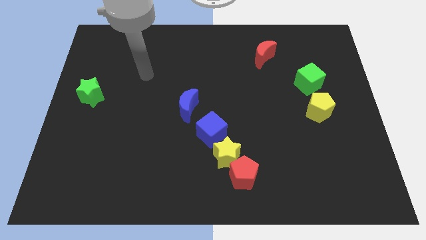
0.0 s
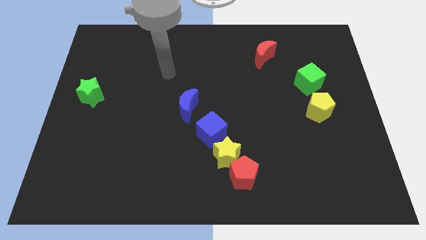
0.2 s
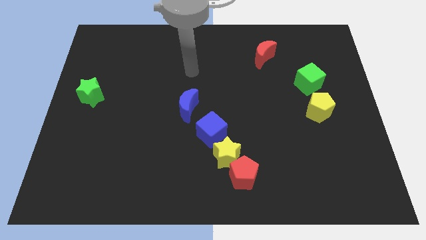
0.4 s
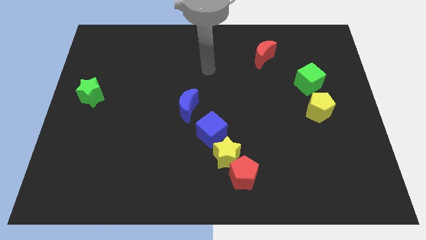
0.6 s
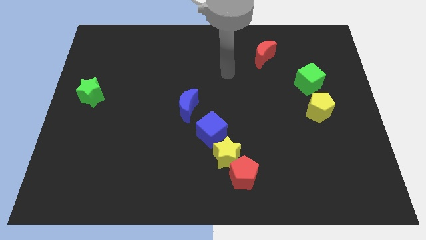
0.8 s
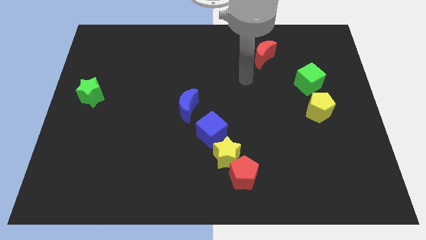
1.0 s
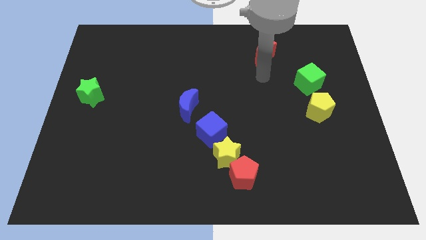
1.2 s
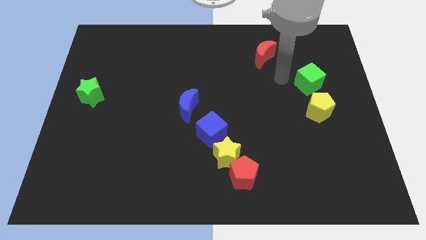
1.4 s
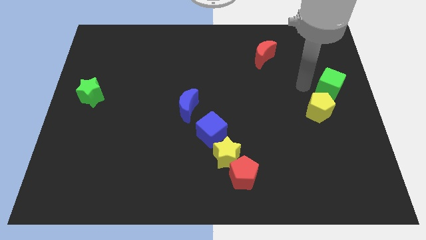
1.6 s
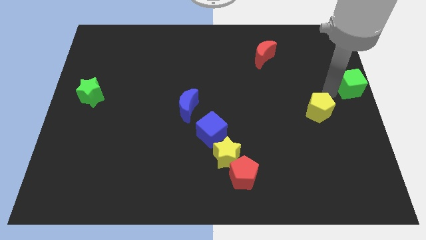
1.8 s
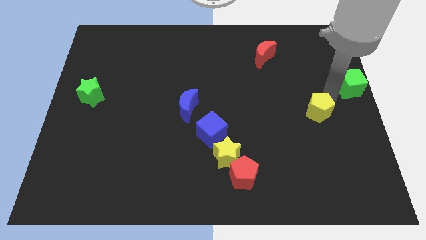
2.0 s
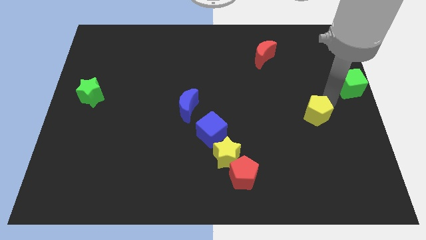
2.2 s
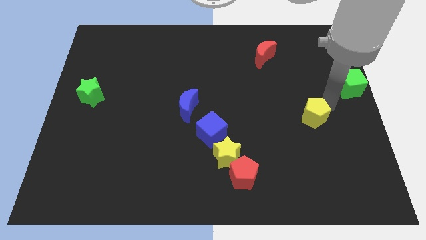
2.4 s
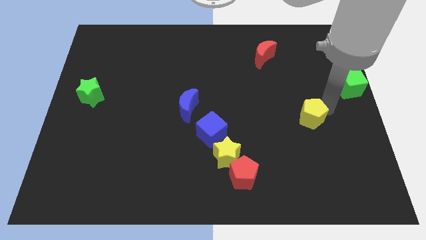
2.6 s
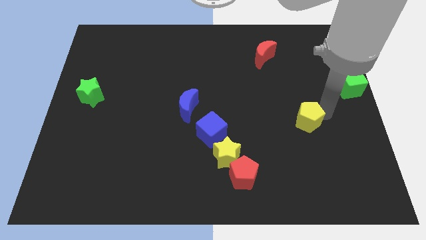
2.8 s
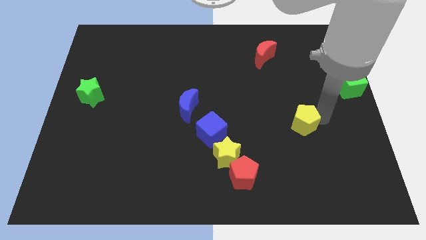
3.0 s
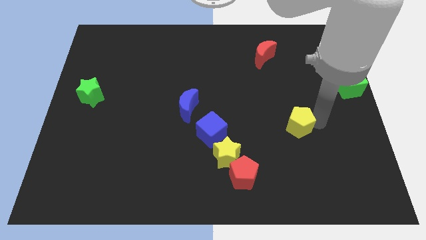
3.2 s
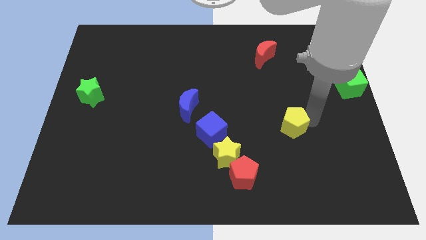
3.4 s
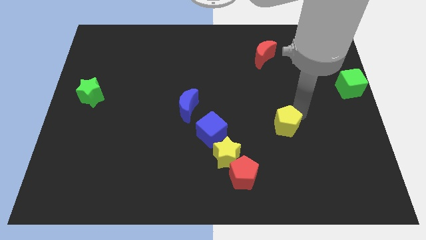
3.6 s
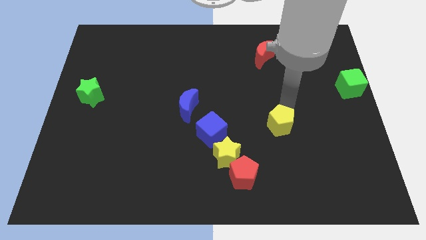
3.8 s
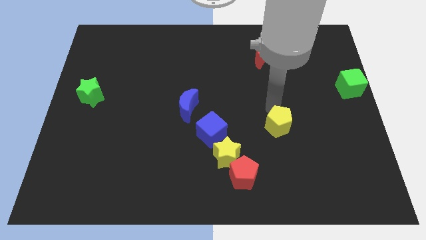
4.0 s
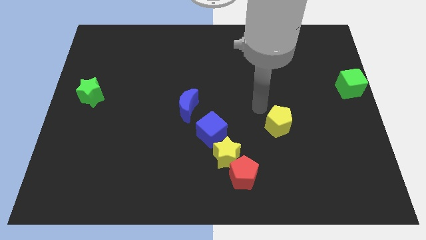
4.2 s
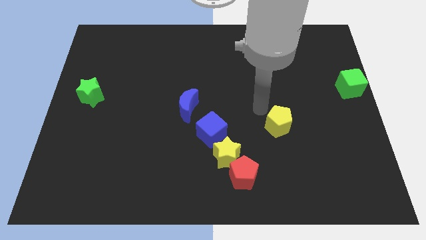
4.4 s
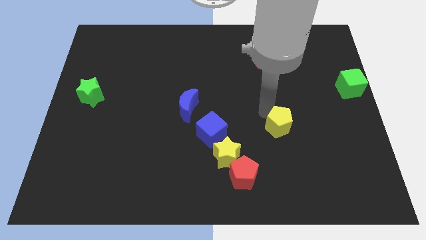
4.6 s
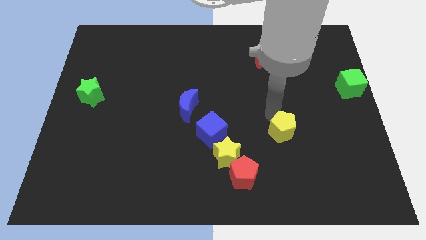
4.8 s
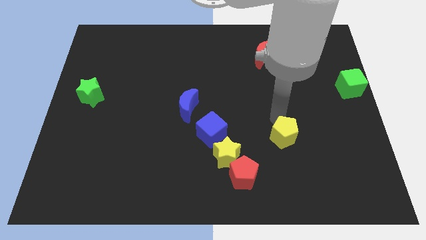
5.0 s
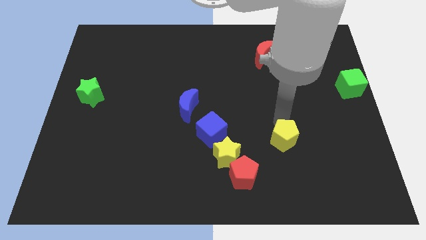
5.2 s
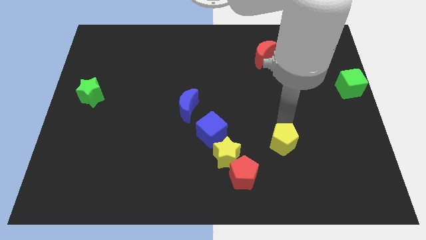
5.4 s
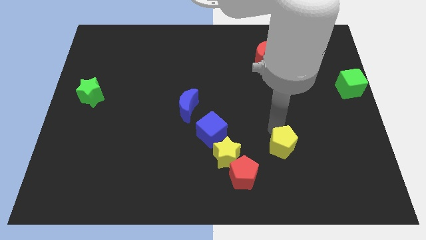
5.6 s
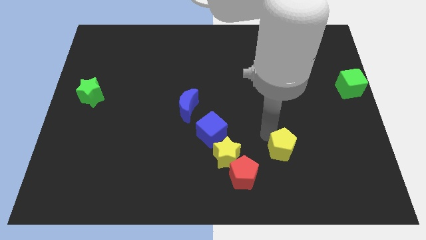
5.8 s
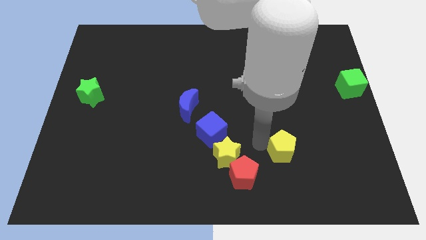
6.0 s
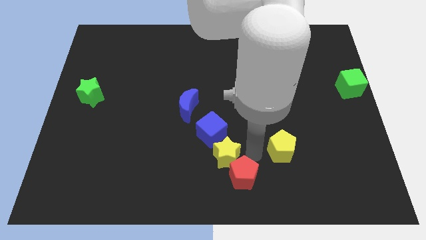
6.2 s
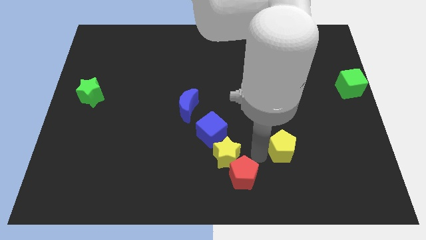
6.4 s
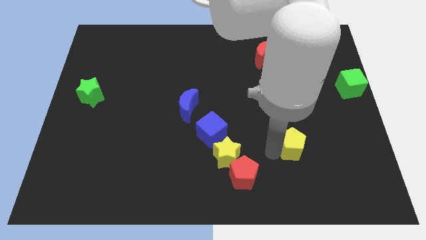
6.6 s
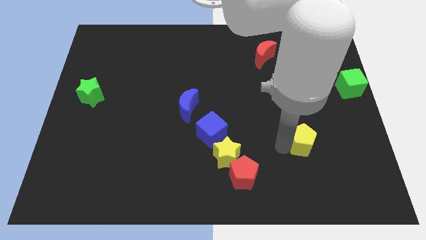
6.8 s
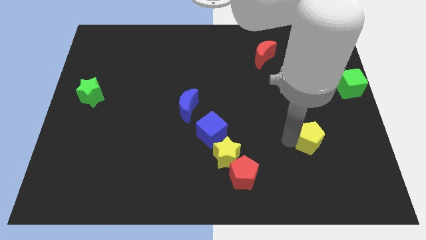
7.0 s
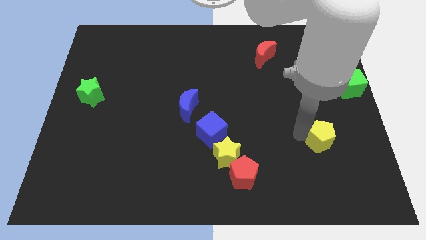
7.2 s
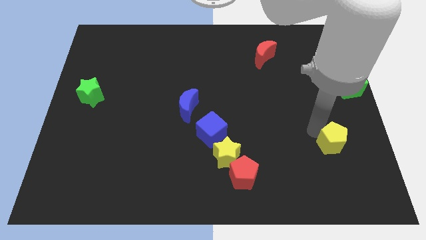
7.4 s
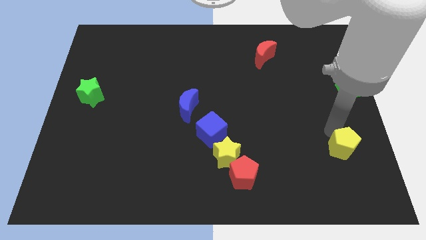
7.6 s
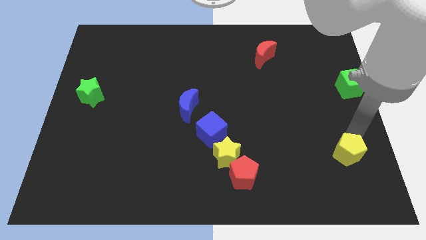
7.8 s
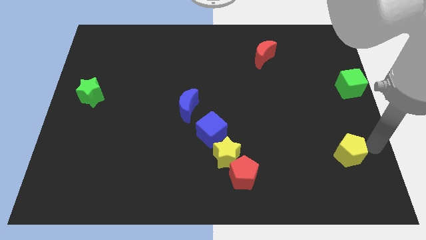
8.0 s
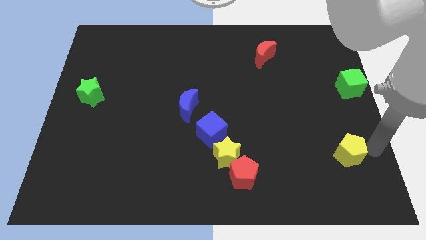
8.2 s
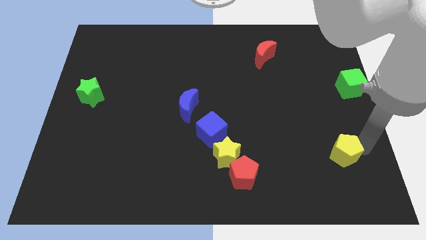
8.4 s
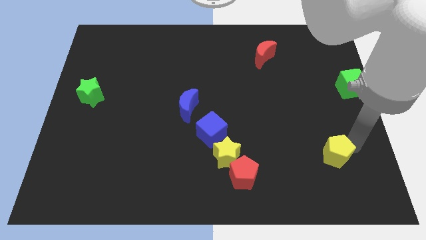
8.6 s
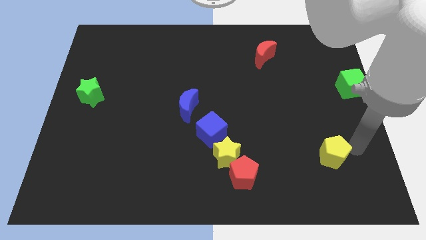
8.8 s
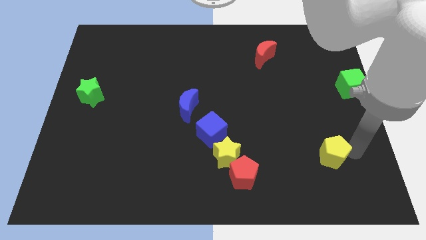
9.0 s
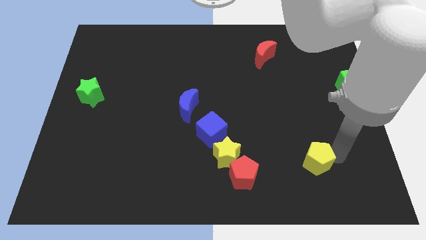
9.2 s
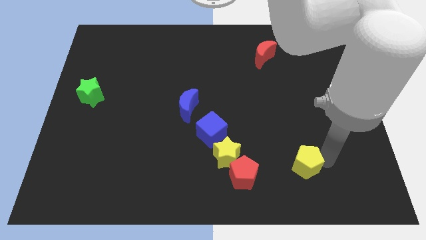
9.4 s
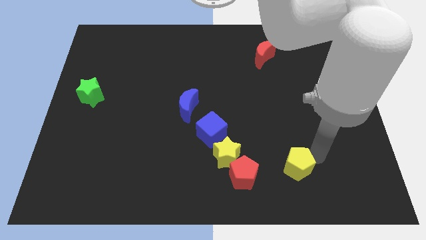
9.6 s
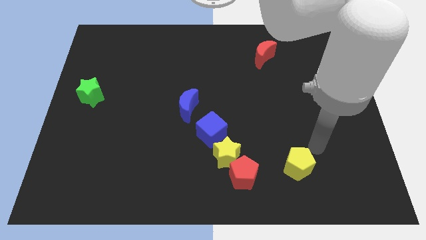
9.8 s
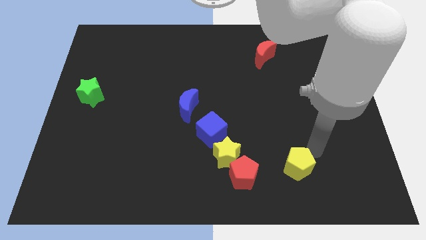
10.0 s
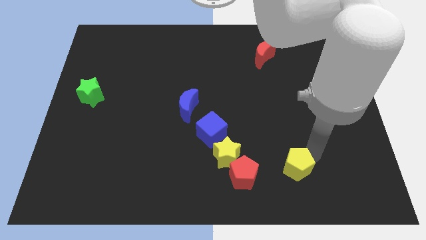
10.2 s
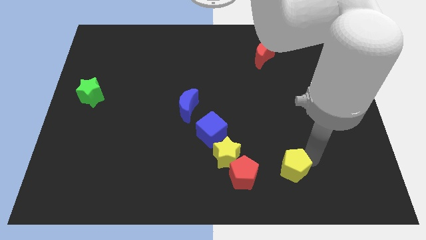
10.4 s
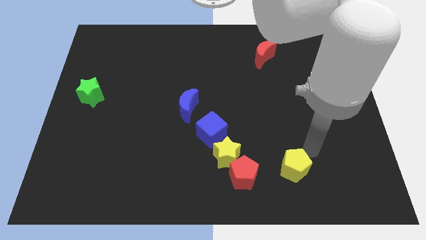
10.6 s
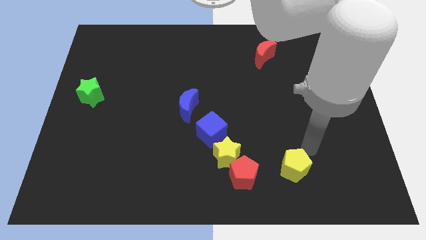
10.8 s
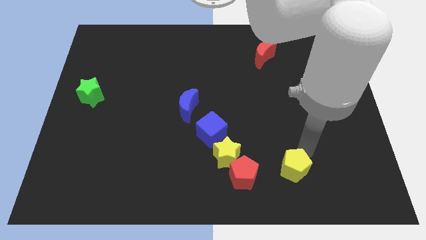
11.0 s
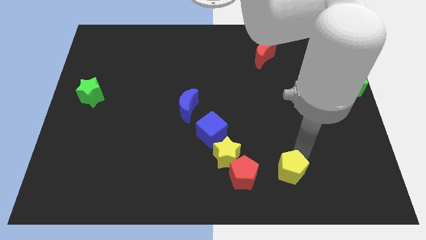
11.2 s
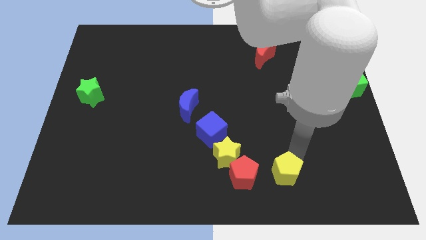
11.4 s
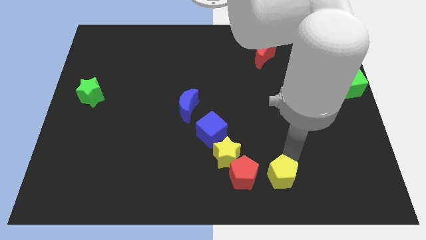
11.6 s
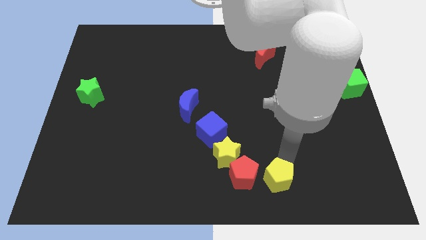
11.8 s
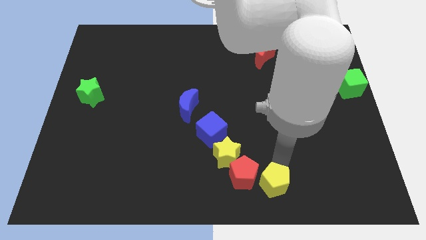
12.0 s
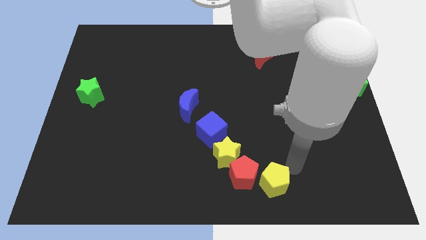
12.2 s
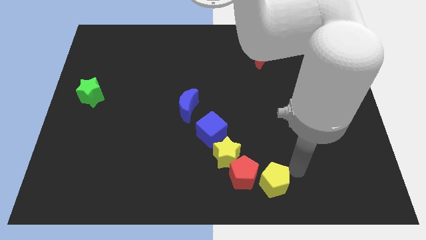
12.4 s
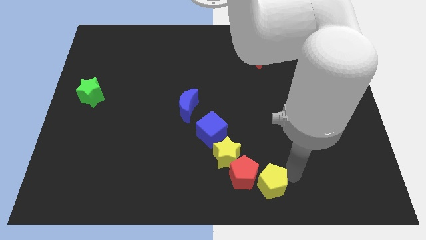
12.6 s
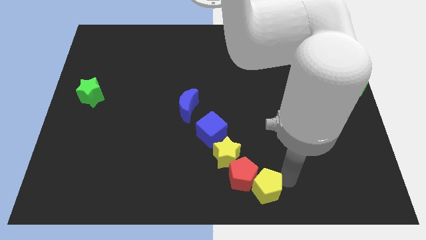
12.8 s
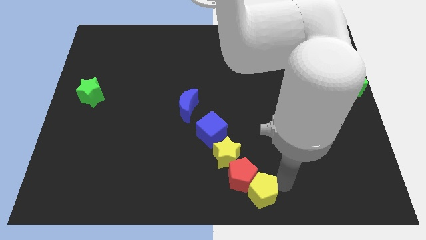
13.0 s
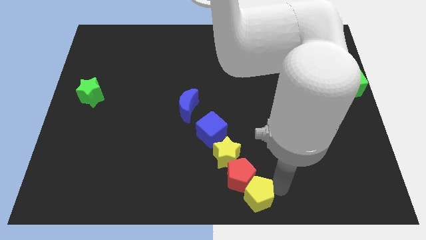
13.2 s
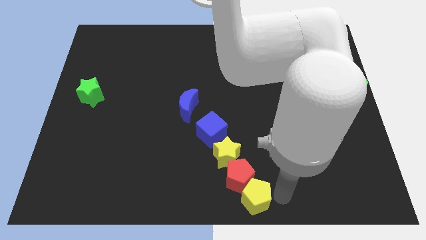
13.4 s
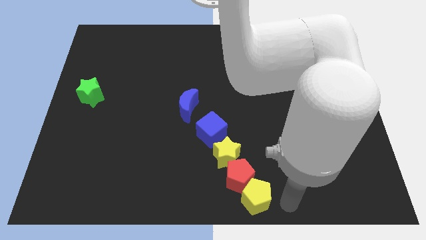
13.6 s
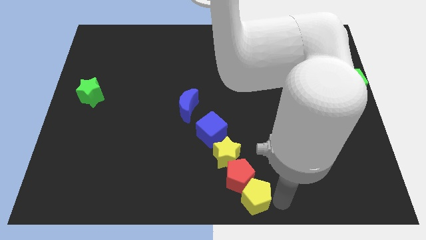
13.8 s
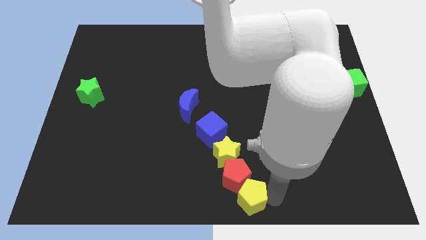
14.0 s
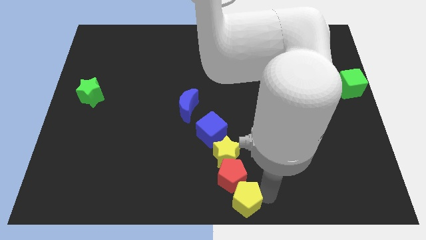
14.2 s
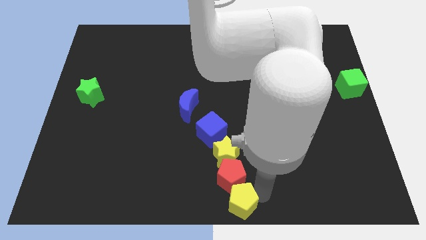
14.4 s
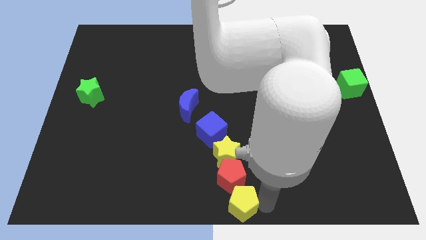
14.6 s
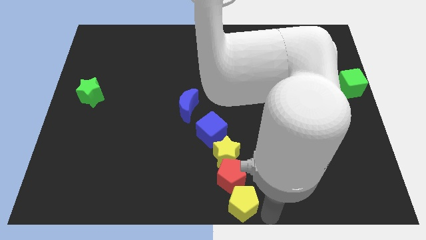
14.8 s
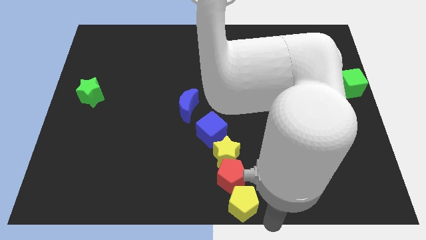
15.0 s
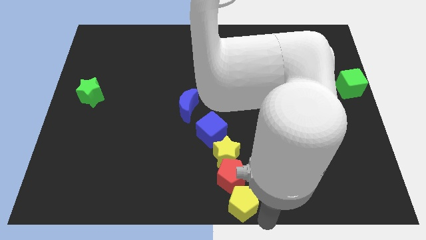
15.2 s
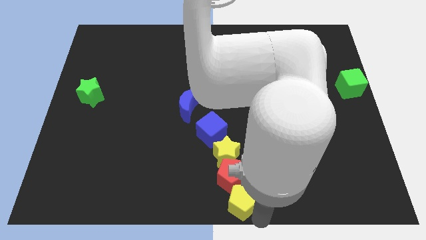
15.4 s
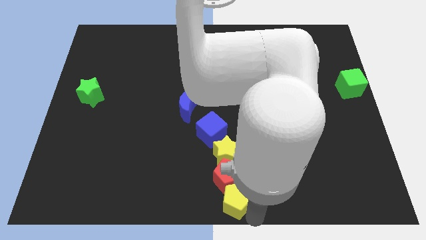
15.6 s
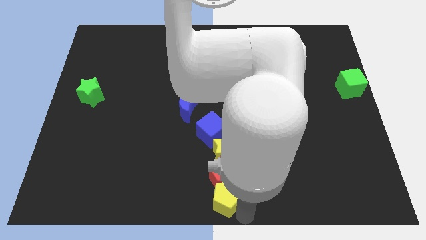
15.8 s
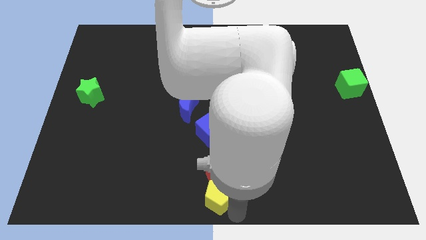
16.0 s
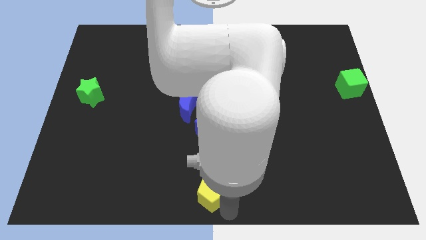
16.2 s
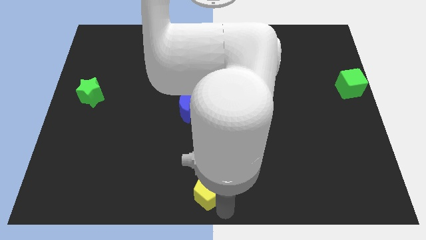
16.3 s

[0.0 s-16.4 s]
slide the yellow pentagon diagonally down and to the left of the yellow star
